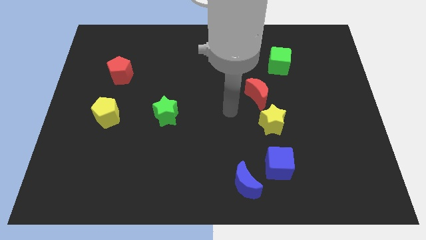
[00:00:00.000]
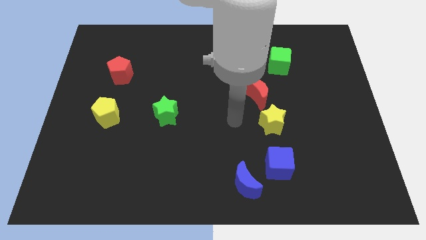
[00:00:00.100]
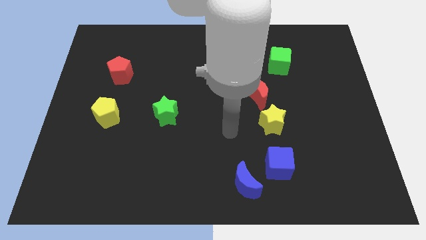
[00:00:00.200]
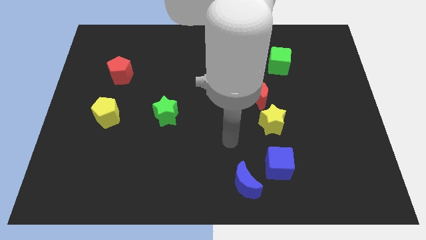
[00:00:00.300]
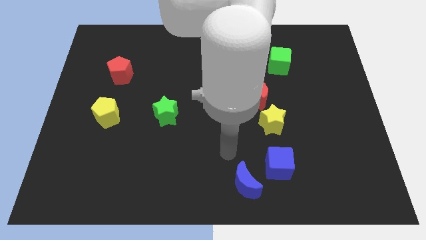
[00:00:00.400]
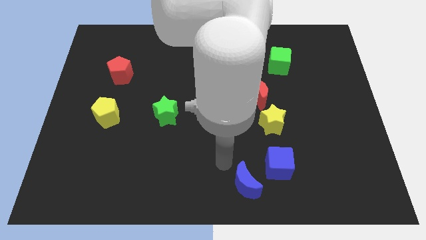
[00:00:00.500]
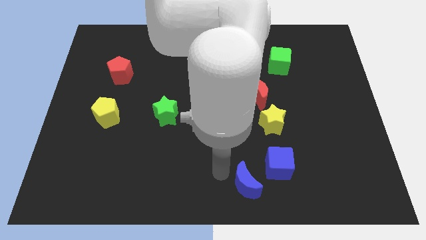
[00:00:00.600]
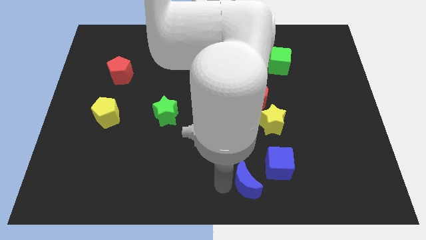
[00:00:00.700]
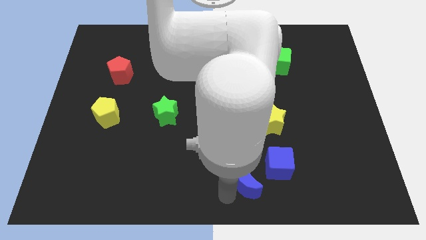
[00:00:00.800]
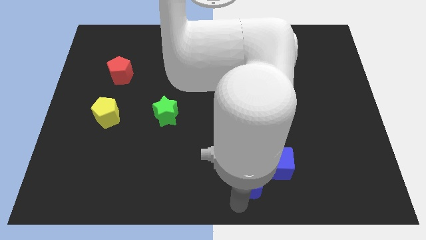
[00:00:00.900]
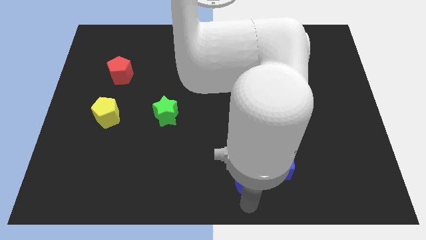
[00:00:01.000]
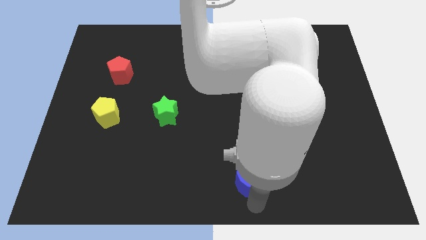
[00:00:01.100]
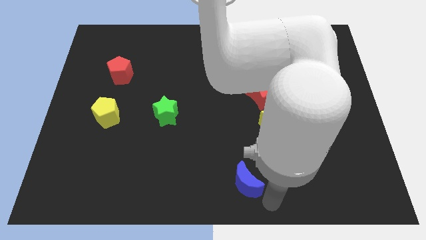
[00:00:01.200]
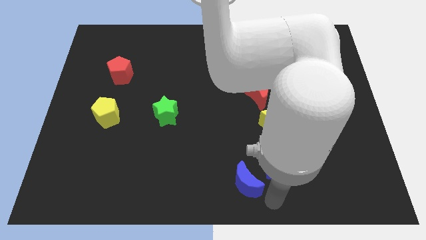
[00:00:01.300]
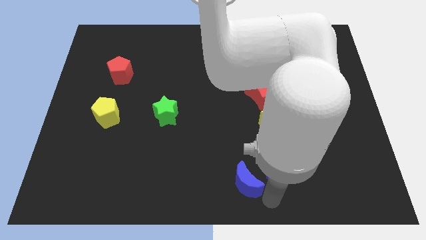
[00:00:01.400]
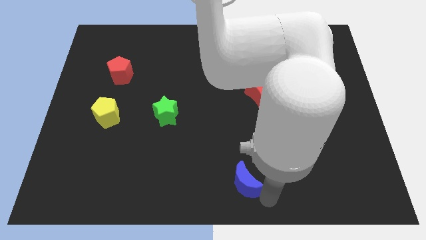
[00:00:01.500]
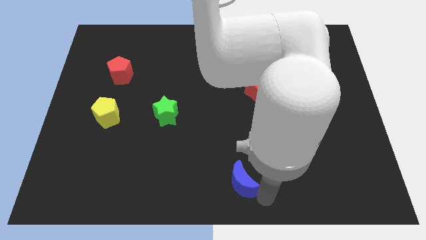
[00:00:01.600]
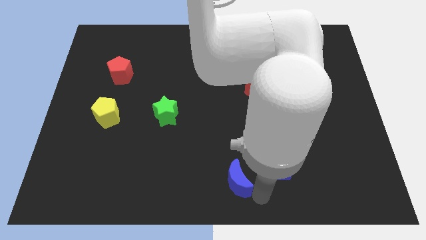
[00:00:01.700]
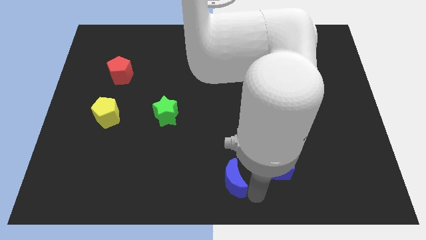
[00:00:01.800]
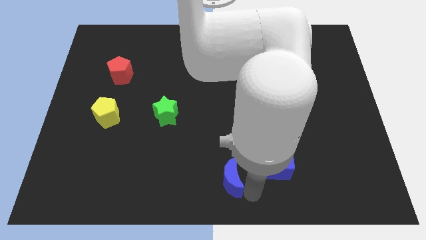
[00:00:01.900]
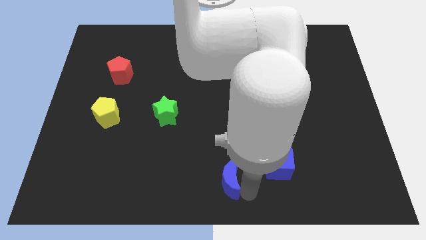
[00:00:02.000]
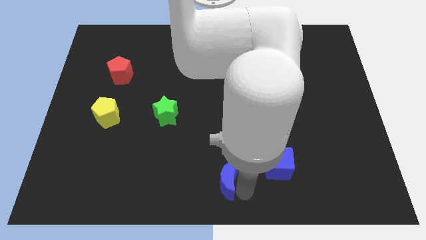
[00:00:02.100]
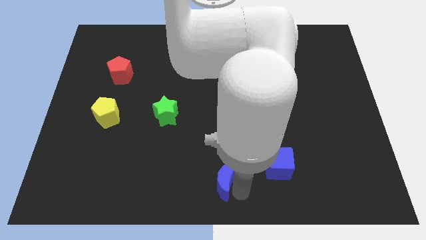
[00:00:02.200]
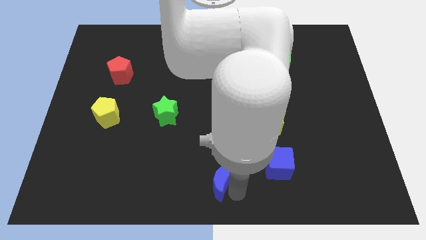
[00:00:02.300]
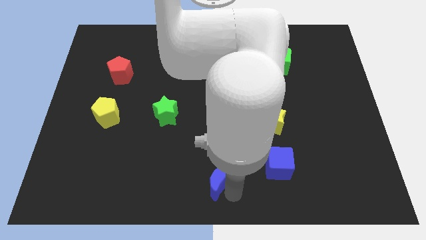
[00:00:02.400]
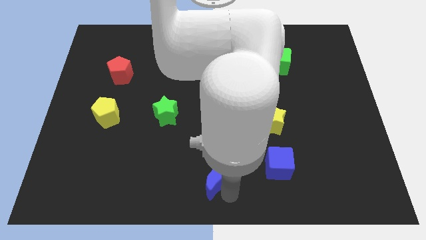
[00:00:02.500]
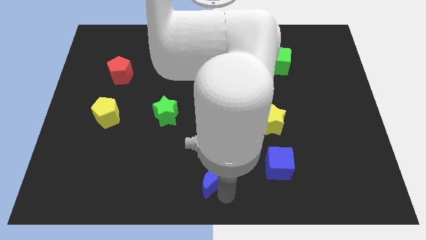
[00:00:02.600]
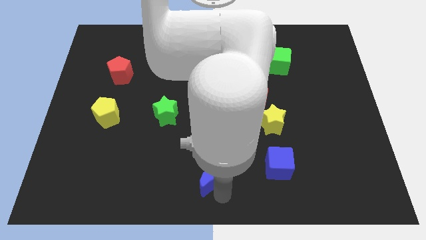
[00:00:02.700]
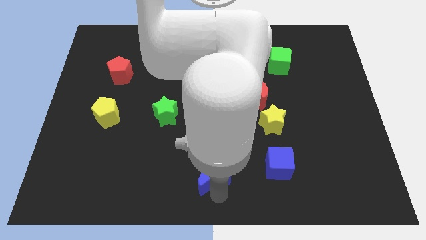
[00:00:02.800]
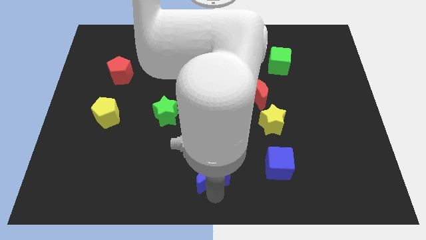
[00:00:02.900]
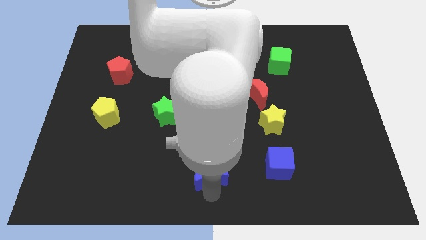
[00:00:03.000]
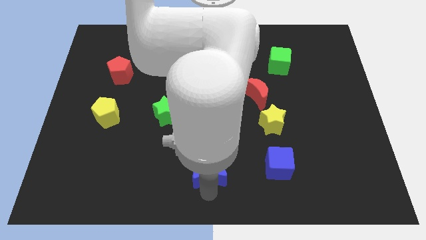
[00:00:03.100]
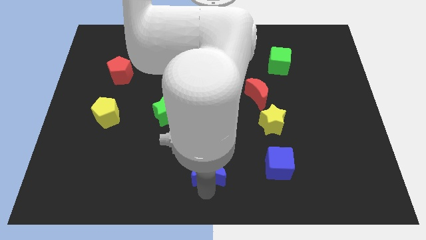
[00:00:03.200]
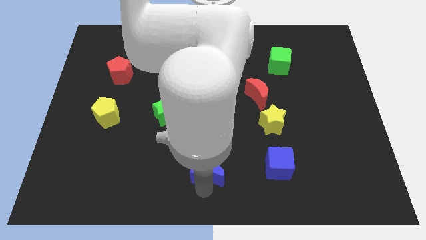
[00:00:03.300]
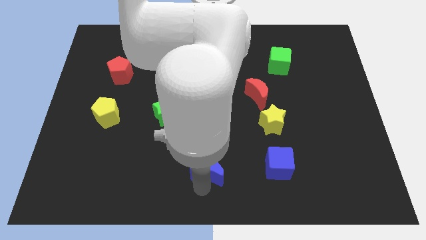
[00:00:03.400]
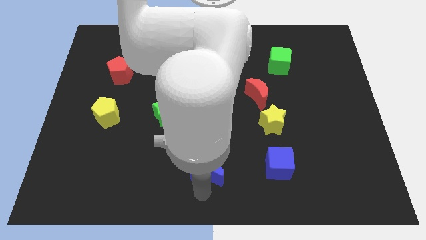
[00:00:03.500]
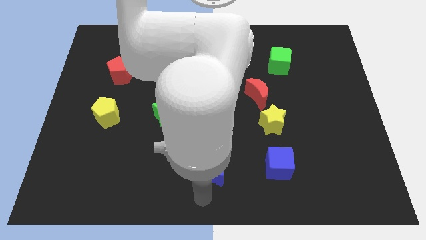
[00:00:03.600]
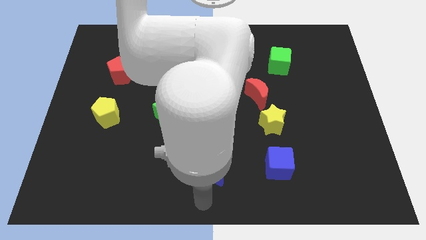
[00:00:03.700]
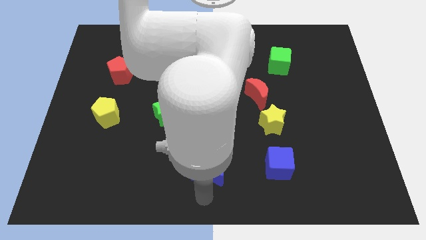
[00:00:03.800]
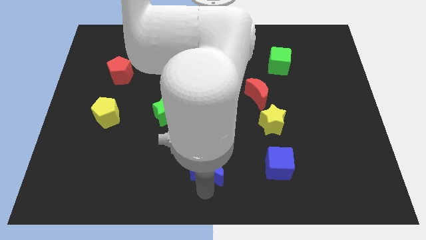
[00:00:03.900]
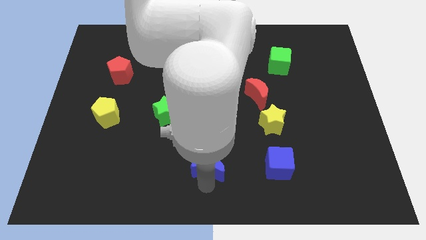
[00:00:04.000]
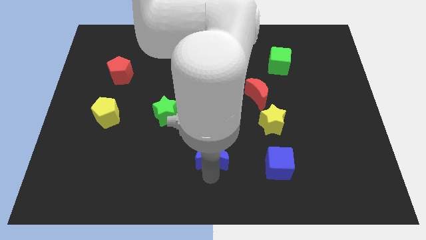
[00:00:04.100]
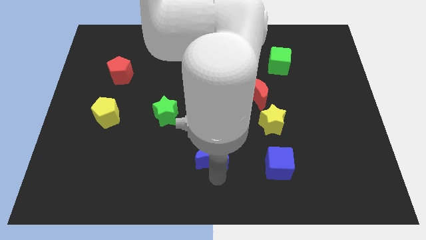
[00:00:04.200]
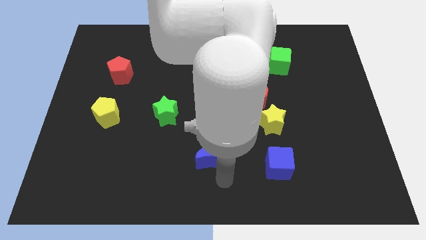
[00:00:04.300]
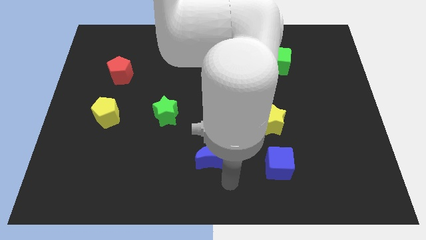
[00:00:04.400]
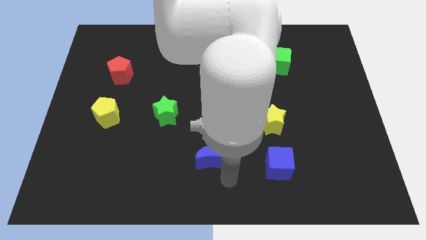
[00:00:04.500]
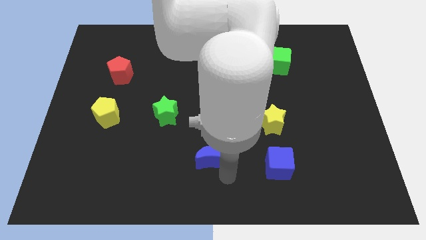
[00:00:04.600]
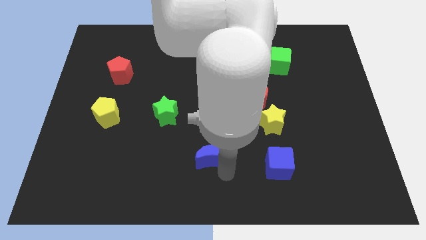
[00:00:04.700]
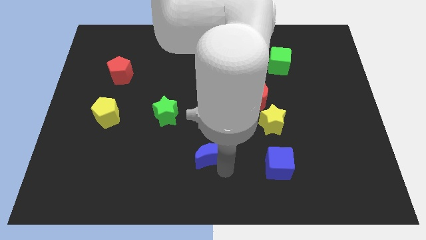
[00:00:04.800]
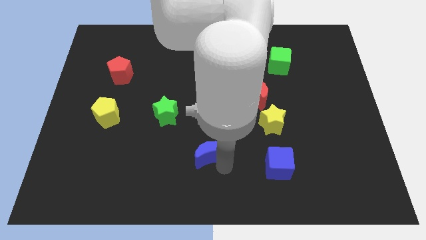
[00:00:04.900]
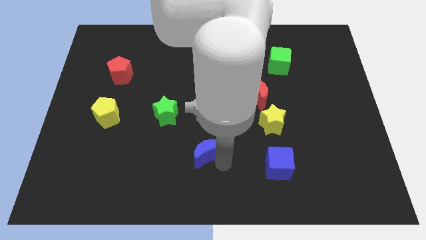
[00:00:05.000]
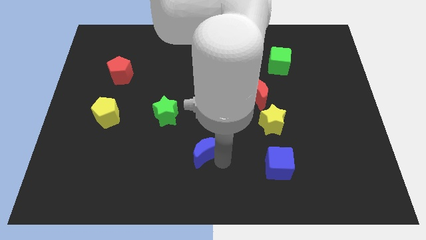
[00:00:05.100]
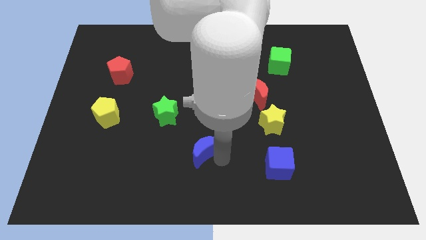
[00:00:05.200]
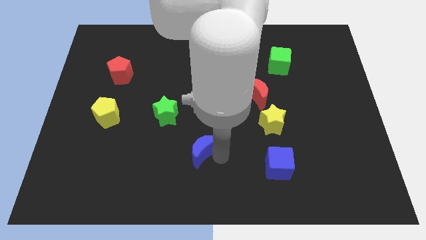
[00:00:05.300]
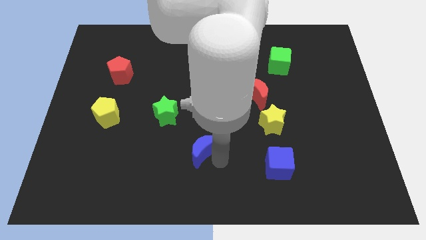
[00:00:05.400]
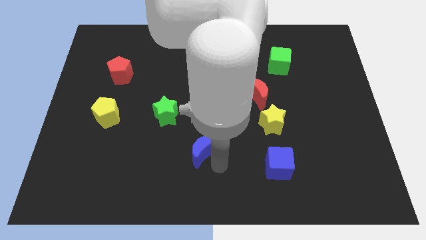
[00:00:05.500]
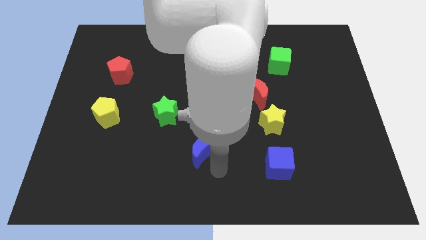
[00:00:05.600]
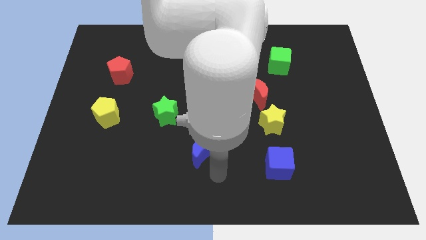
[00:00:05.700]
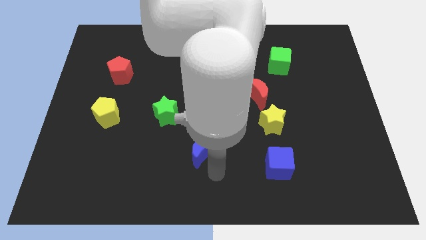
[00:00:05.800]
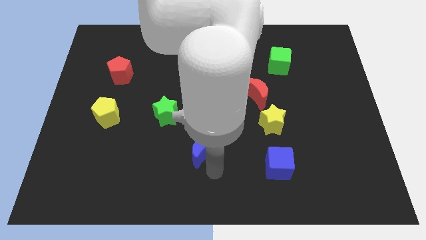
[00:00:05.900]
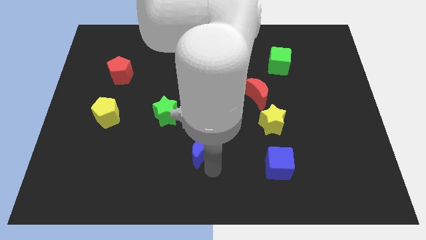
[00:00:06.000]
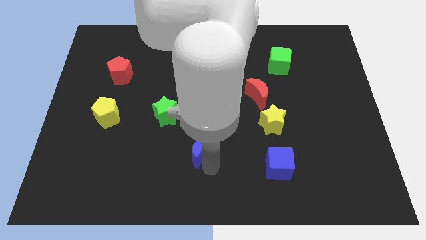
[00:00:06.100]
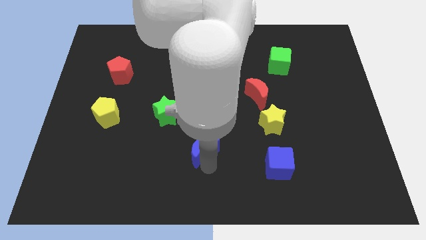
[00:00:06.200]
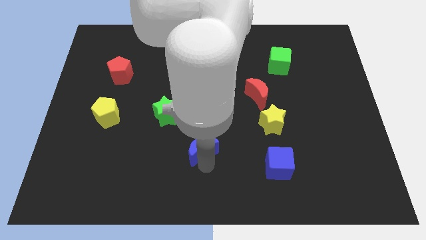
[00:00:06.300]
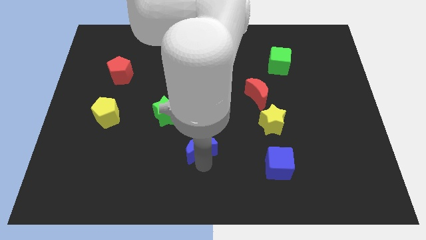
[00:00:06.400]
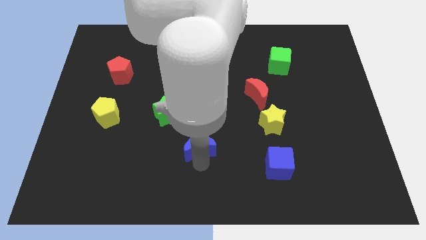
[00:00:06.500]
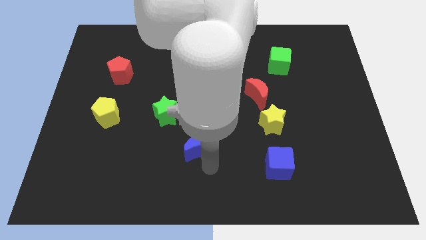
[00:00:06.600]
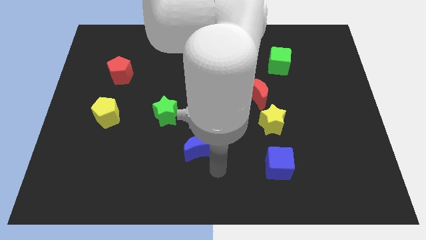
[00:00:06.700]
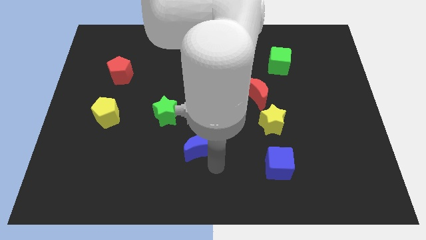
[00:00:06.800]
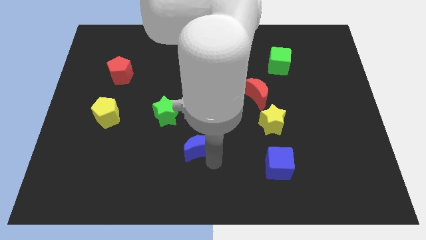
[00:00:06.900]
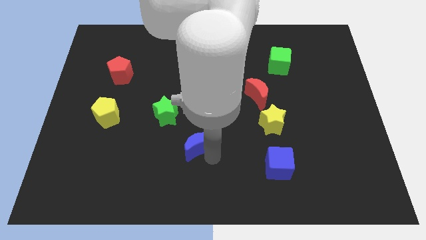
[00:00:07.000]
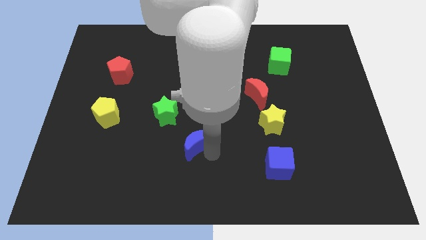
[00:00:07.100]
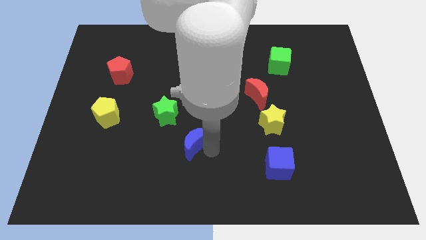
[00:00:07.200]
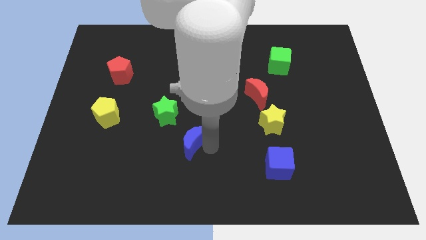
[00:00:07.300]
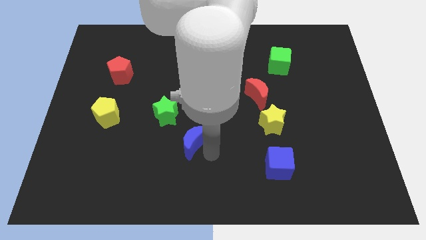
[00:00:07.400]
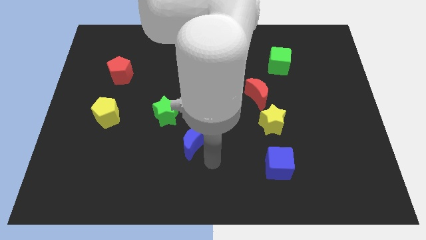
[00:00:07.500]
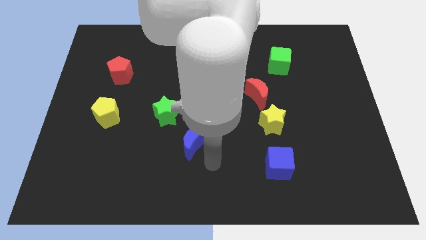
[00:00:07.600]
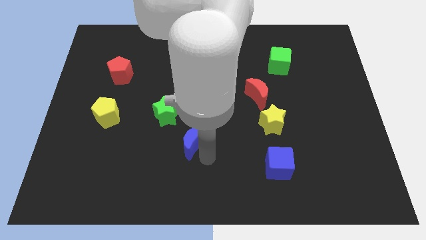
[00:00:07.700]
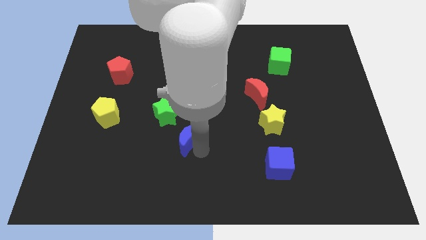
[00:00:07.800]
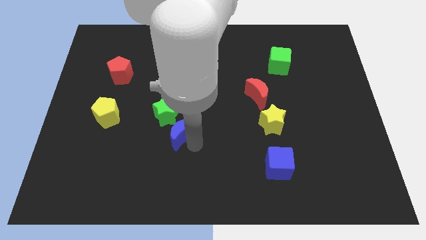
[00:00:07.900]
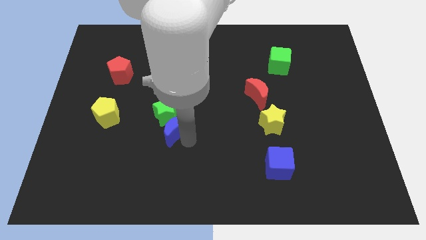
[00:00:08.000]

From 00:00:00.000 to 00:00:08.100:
move the blue moon close to the green star
